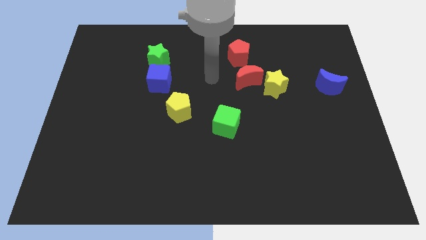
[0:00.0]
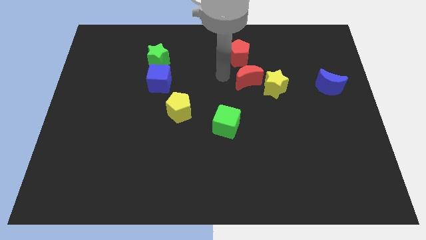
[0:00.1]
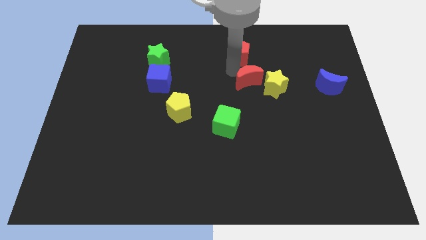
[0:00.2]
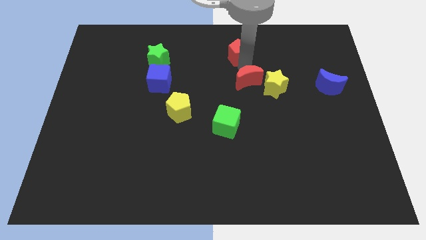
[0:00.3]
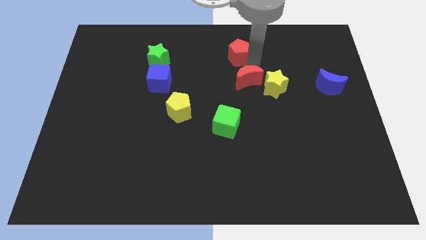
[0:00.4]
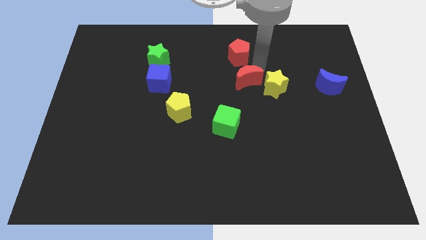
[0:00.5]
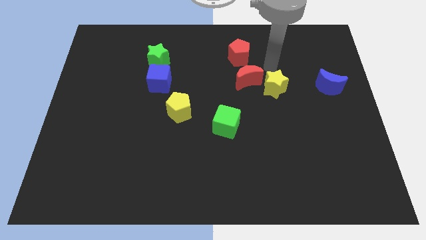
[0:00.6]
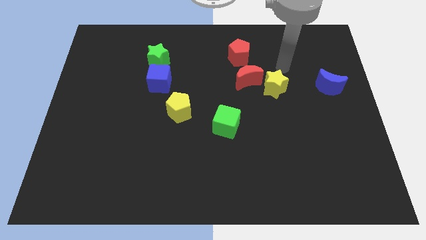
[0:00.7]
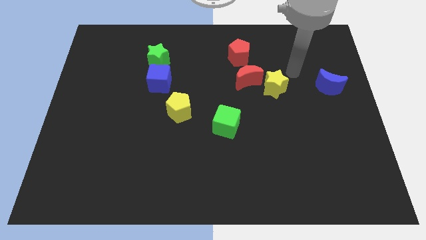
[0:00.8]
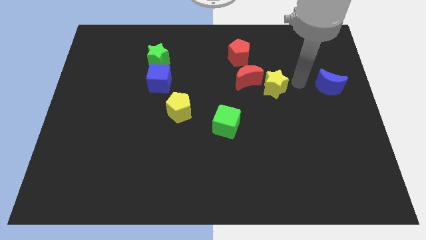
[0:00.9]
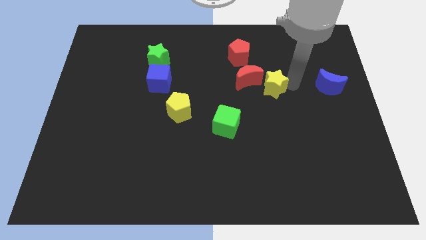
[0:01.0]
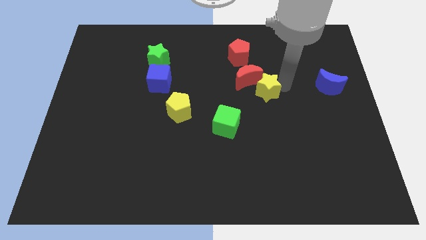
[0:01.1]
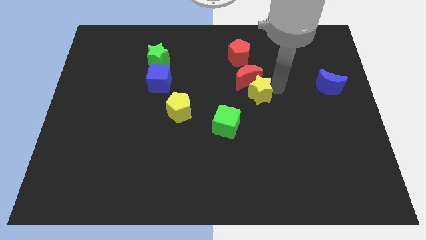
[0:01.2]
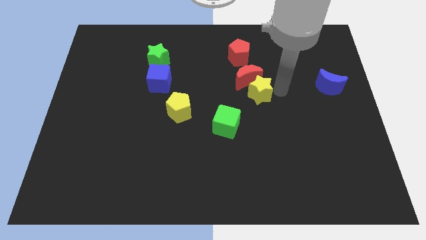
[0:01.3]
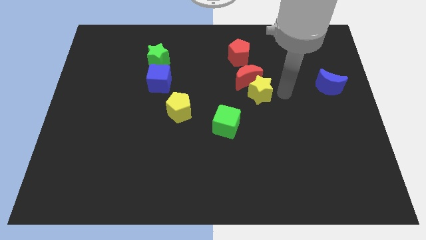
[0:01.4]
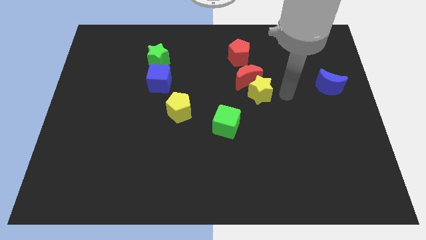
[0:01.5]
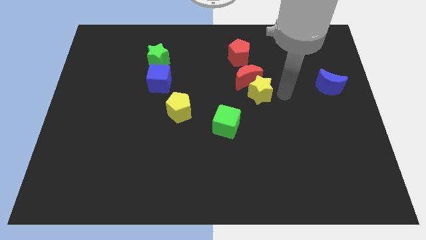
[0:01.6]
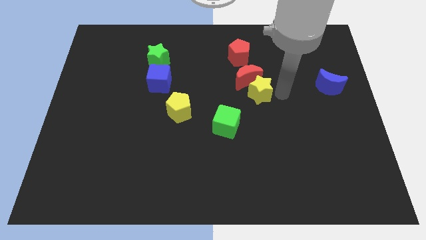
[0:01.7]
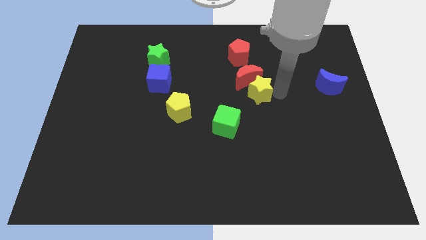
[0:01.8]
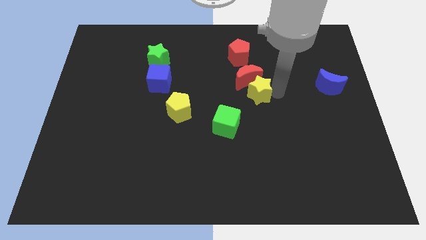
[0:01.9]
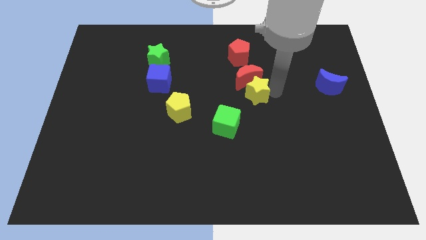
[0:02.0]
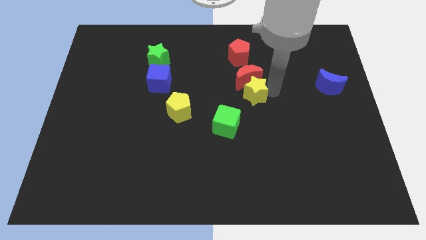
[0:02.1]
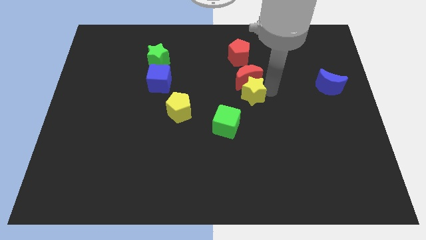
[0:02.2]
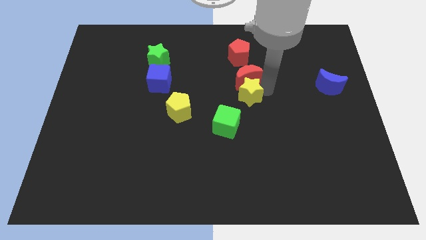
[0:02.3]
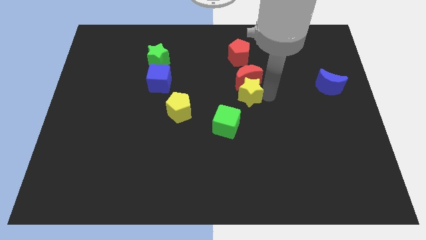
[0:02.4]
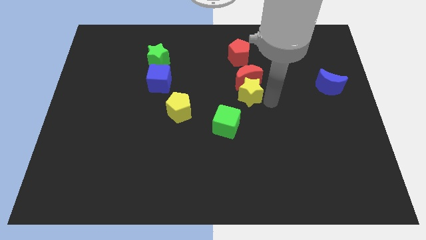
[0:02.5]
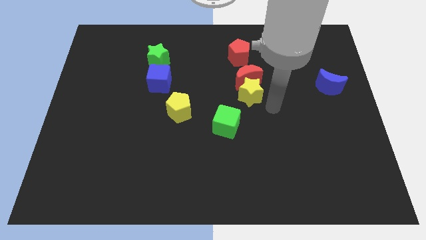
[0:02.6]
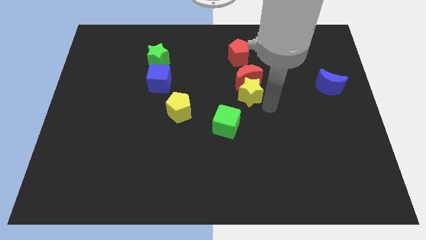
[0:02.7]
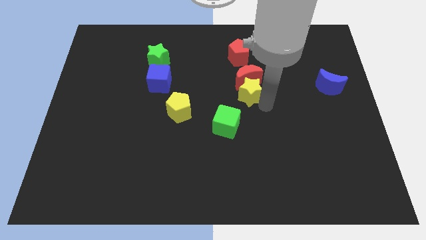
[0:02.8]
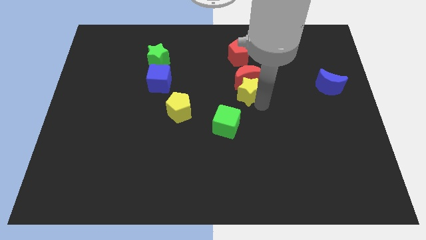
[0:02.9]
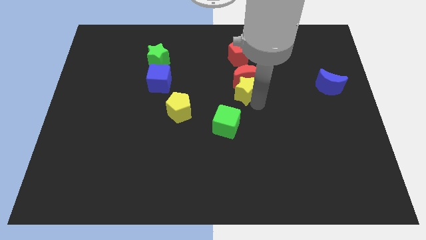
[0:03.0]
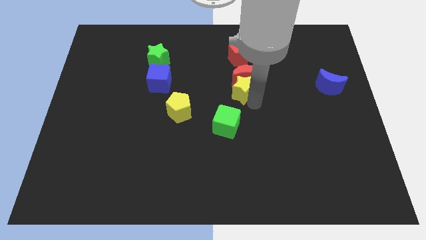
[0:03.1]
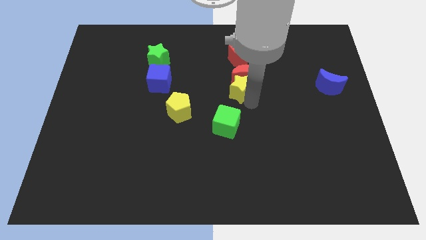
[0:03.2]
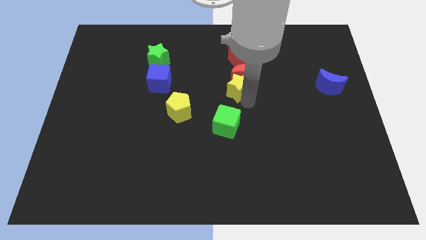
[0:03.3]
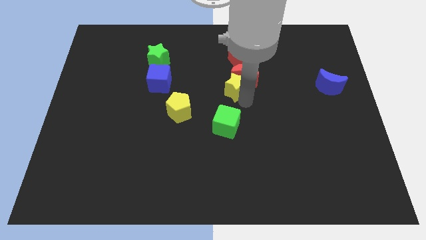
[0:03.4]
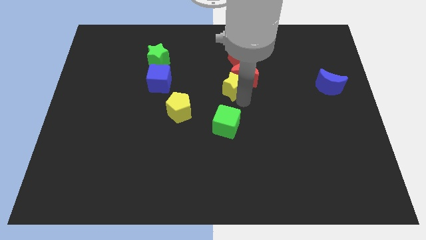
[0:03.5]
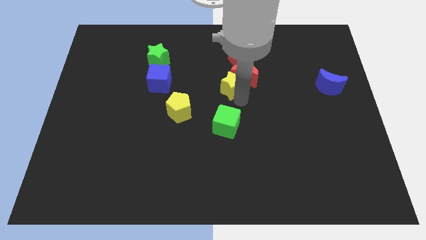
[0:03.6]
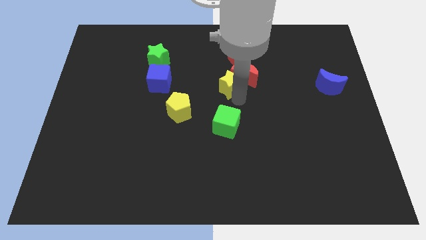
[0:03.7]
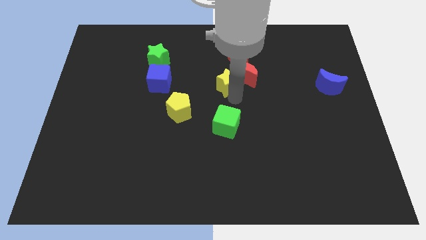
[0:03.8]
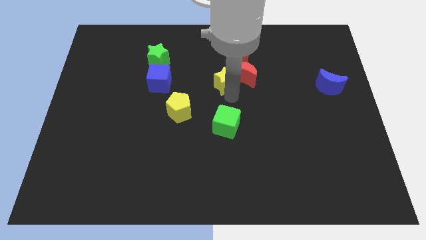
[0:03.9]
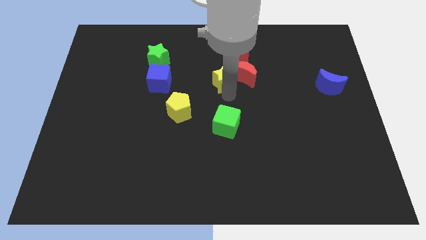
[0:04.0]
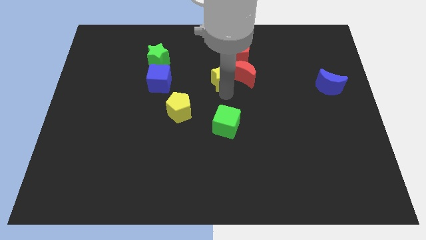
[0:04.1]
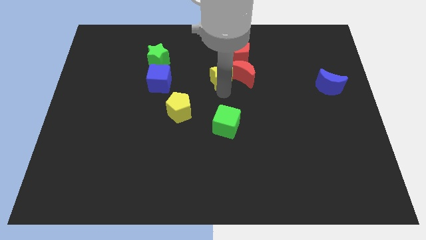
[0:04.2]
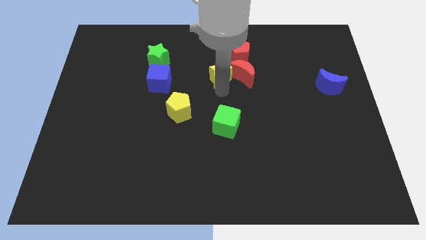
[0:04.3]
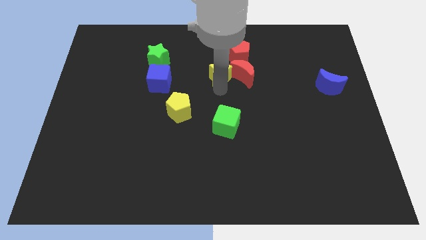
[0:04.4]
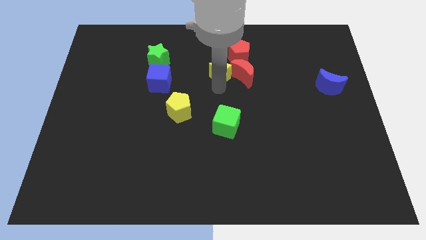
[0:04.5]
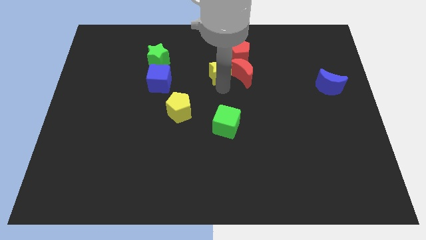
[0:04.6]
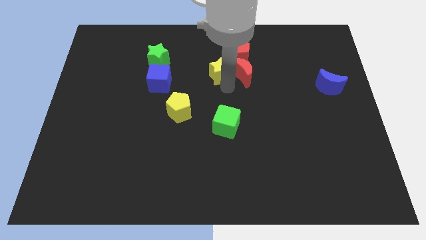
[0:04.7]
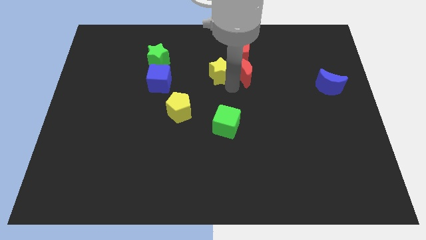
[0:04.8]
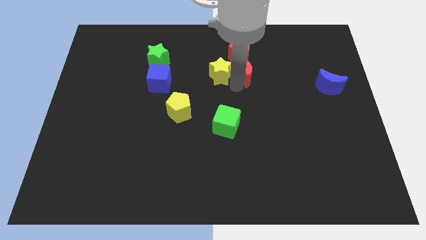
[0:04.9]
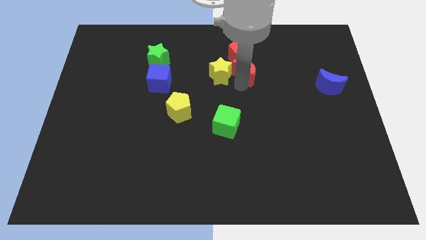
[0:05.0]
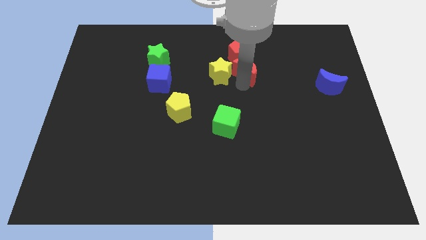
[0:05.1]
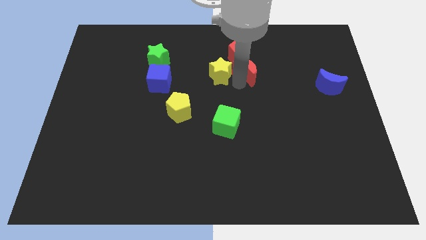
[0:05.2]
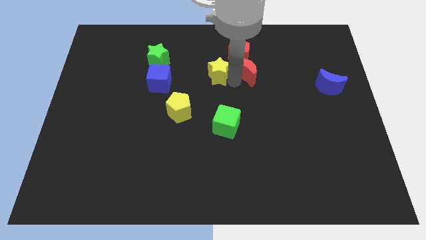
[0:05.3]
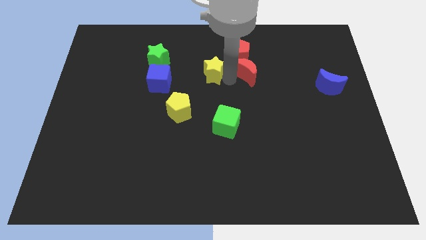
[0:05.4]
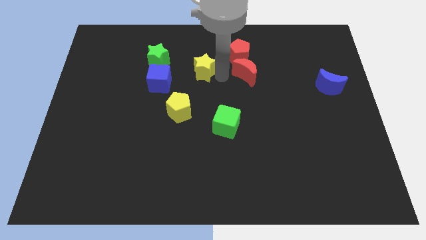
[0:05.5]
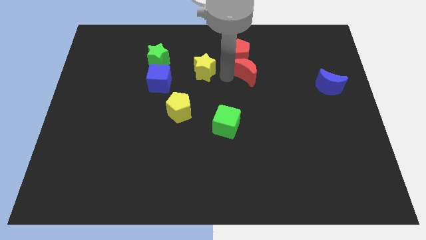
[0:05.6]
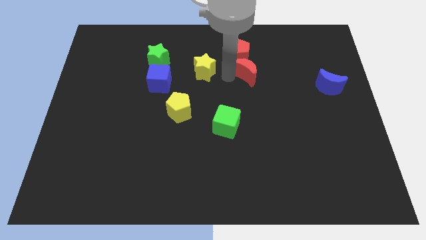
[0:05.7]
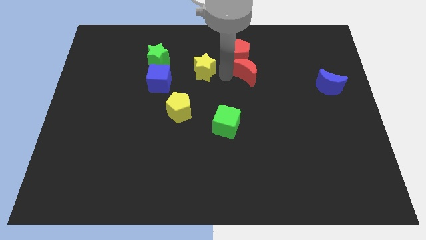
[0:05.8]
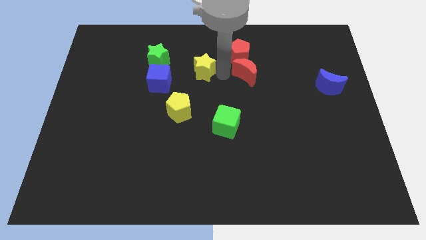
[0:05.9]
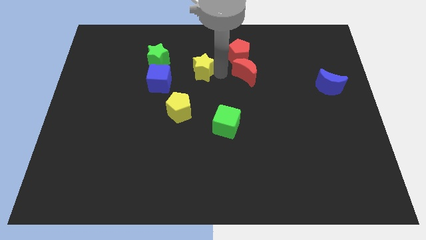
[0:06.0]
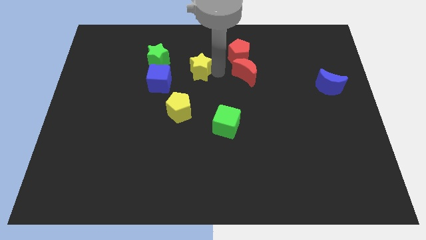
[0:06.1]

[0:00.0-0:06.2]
push the yellow star to the top right side of the blue cube

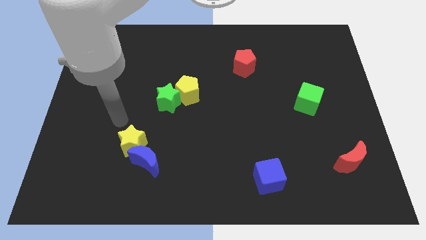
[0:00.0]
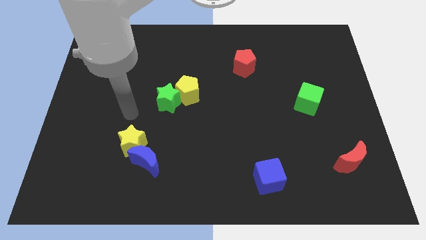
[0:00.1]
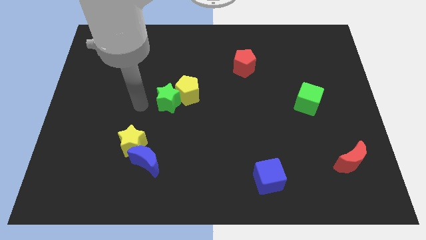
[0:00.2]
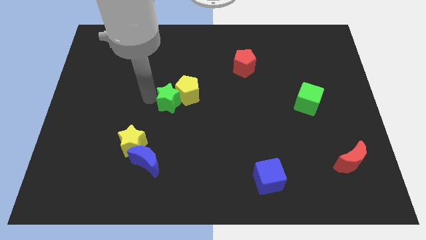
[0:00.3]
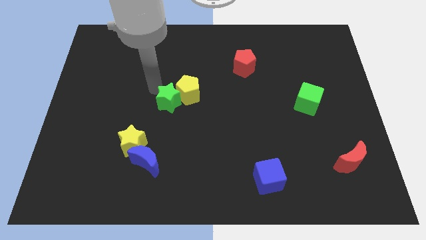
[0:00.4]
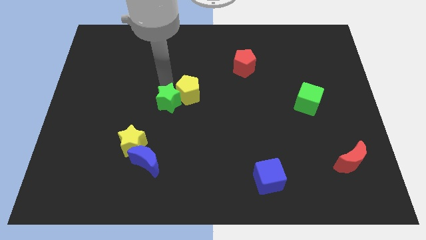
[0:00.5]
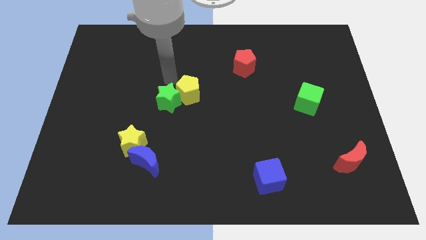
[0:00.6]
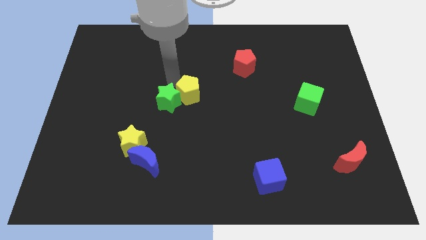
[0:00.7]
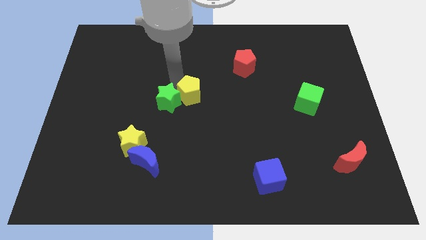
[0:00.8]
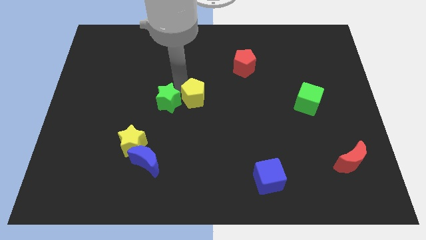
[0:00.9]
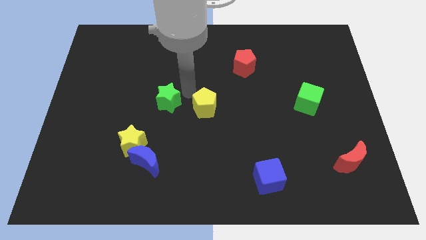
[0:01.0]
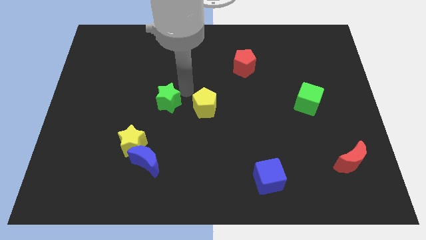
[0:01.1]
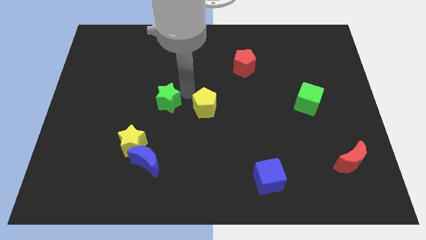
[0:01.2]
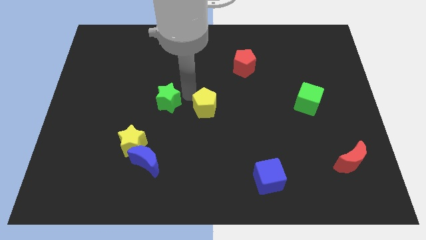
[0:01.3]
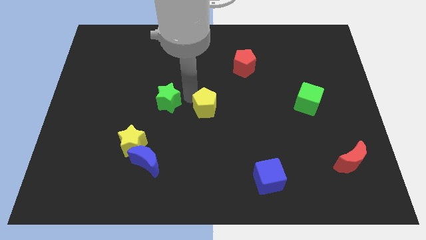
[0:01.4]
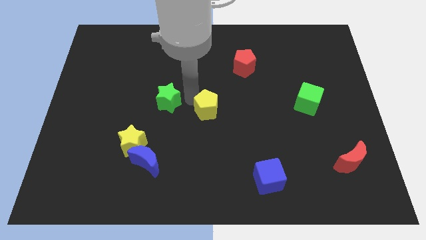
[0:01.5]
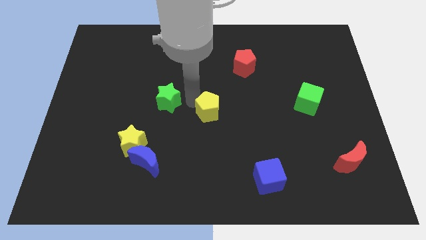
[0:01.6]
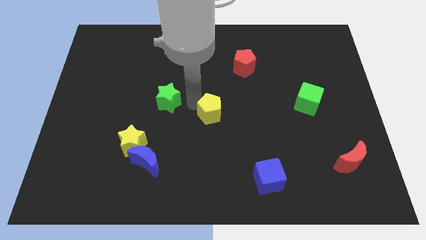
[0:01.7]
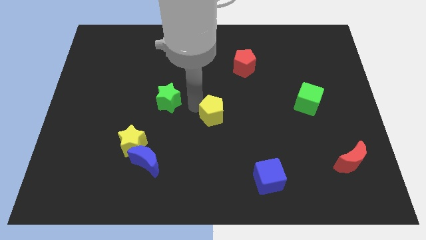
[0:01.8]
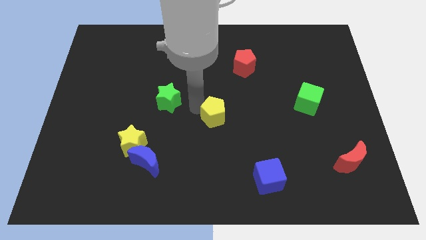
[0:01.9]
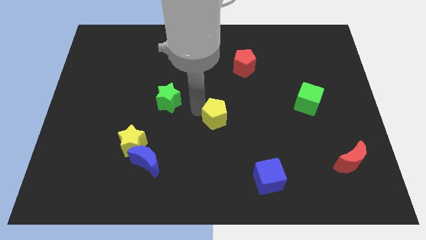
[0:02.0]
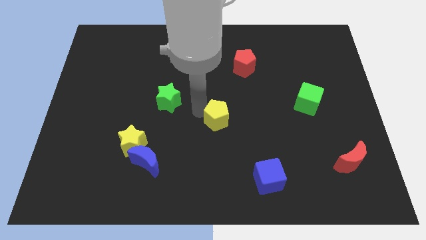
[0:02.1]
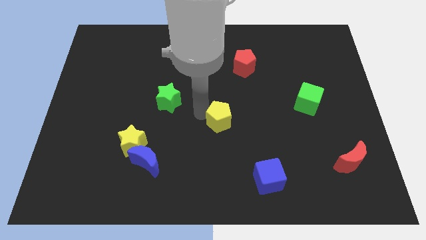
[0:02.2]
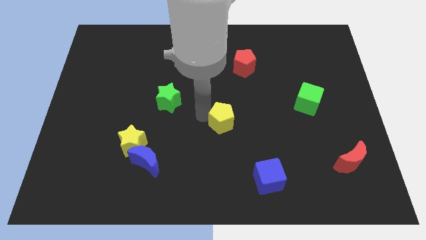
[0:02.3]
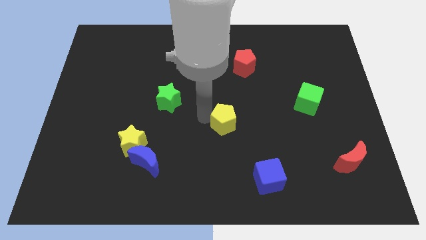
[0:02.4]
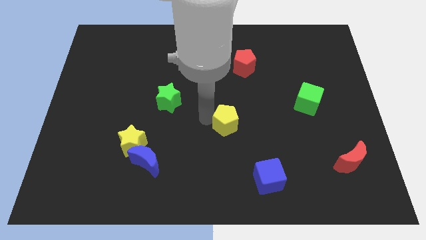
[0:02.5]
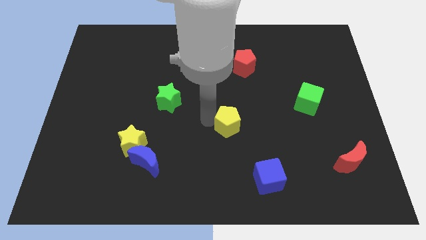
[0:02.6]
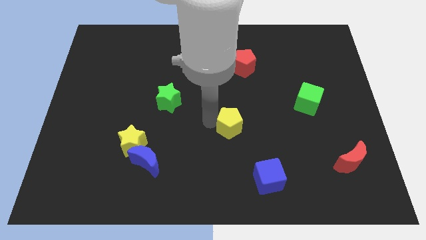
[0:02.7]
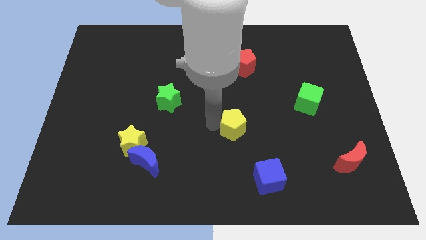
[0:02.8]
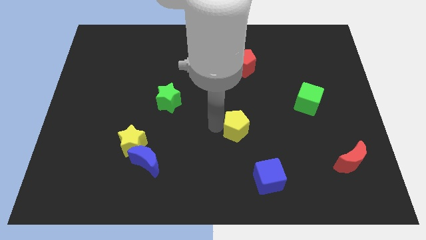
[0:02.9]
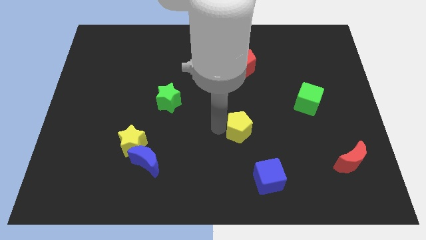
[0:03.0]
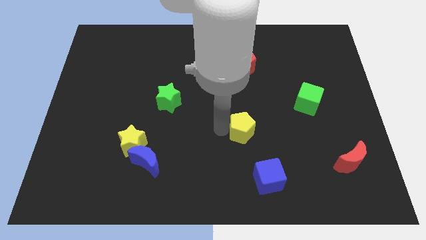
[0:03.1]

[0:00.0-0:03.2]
slide the yellow pentagon above the blue cube
